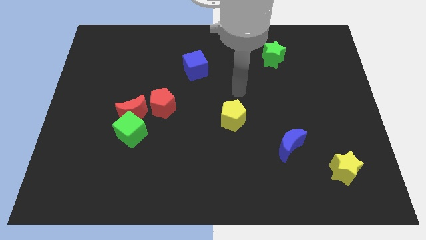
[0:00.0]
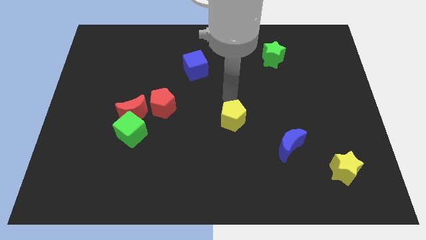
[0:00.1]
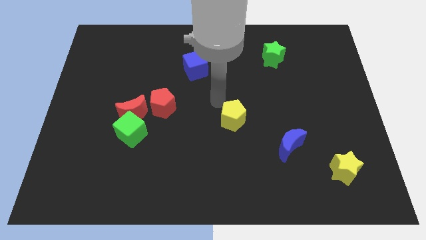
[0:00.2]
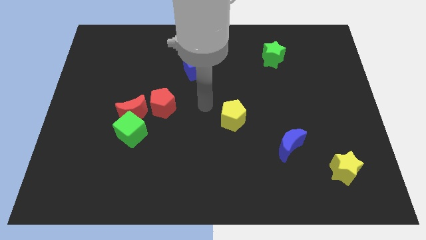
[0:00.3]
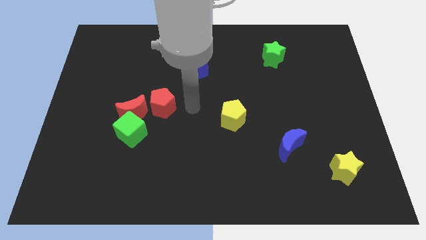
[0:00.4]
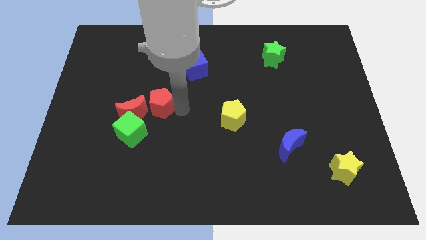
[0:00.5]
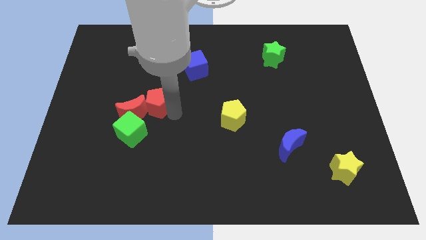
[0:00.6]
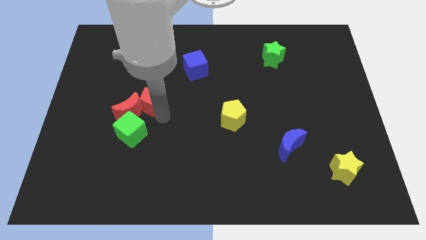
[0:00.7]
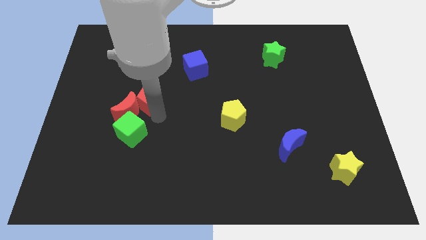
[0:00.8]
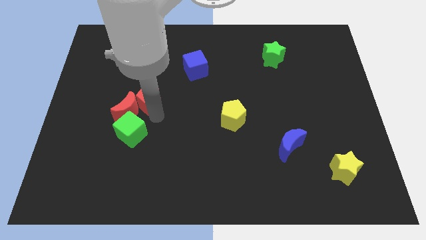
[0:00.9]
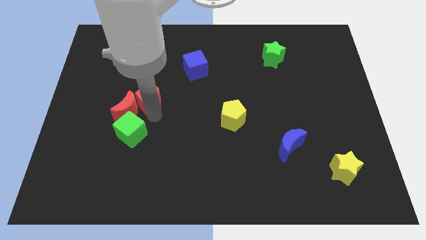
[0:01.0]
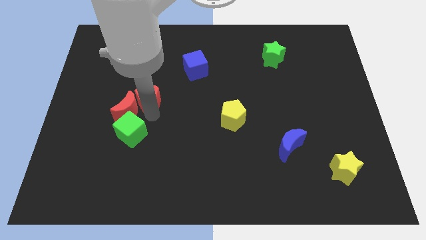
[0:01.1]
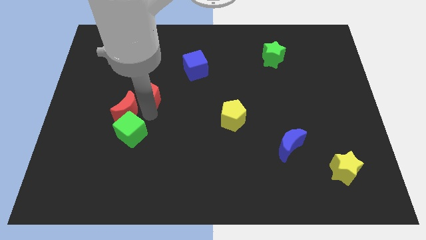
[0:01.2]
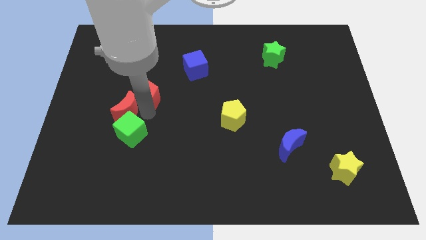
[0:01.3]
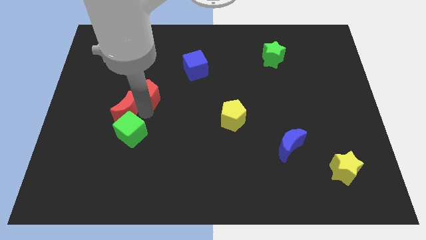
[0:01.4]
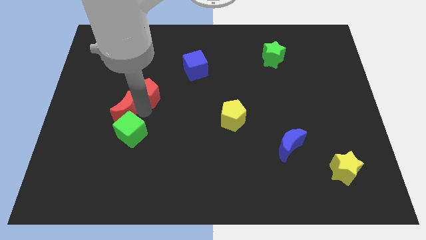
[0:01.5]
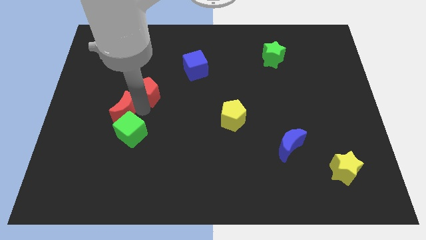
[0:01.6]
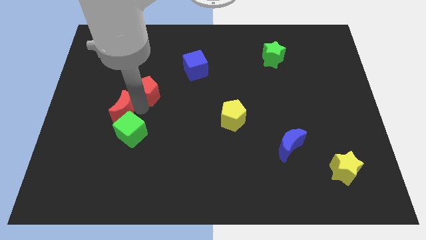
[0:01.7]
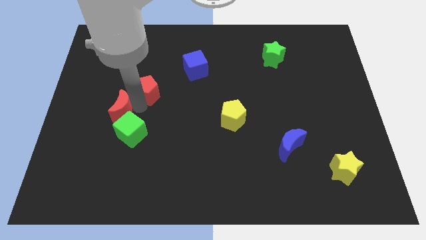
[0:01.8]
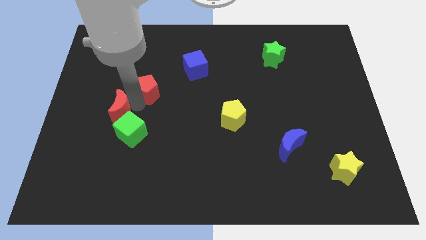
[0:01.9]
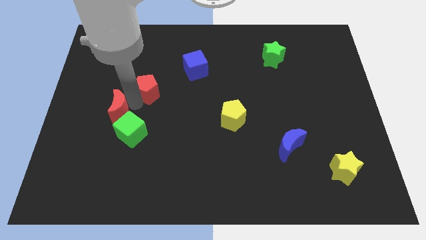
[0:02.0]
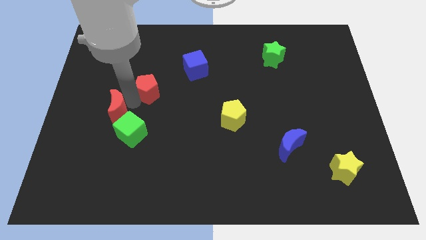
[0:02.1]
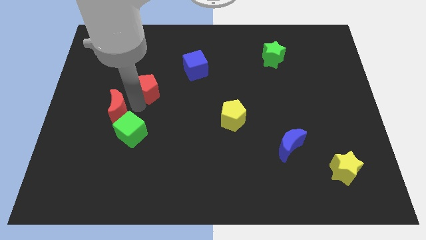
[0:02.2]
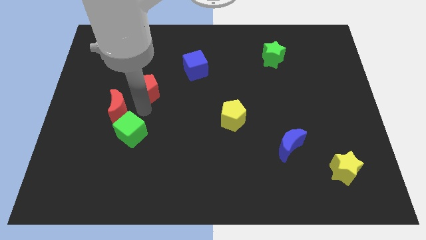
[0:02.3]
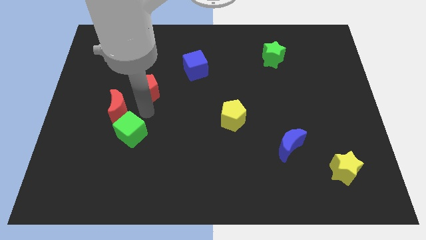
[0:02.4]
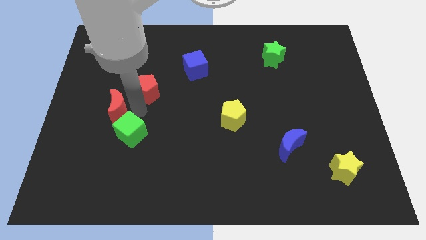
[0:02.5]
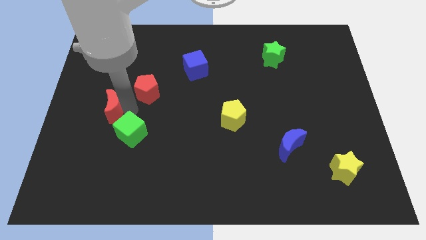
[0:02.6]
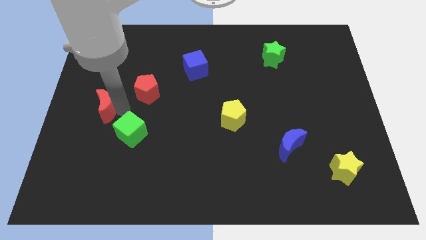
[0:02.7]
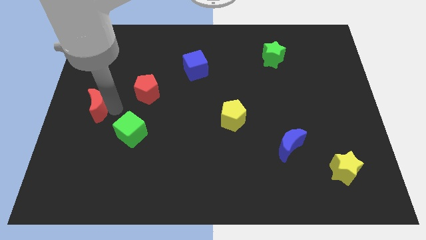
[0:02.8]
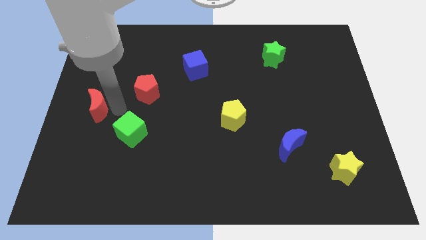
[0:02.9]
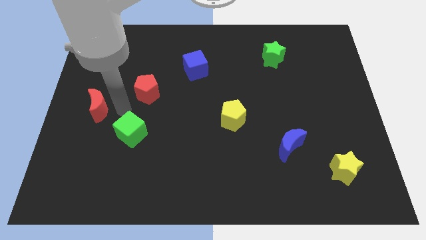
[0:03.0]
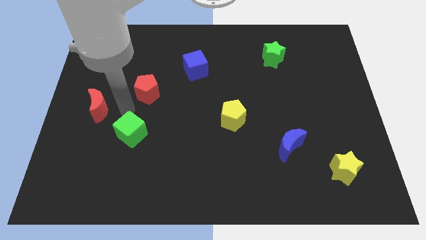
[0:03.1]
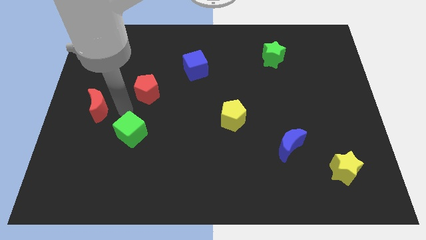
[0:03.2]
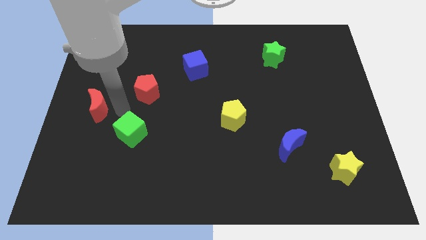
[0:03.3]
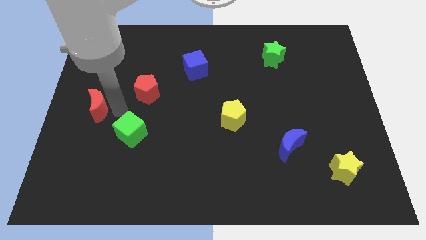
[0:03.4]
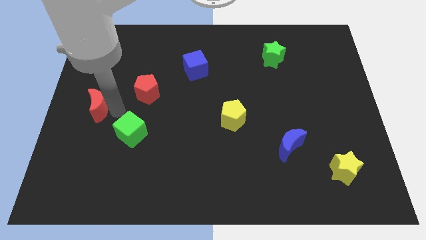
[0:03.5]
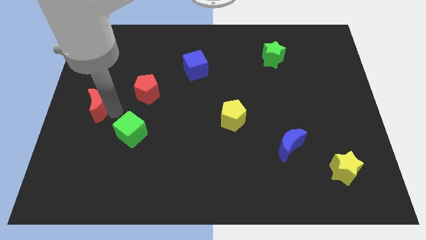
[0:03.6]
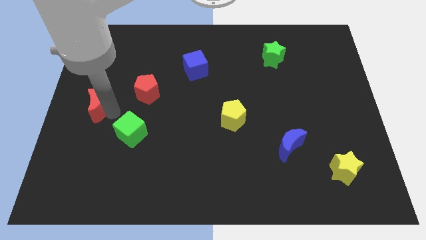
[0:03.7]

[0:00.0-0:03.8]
separate the red moon from the green cube and red pentagon

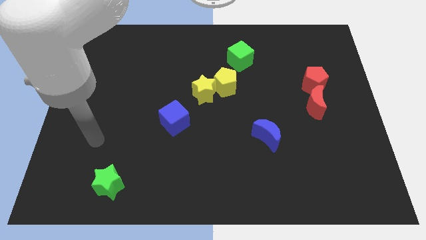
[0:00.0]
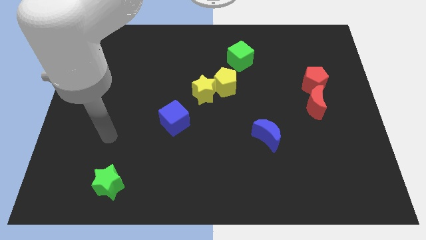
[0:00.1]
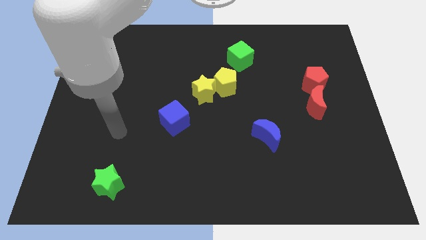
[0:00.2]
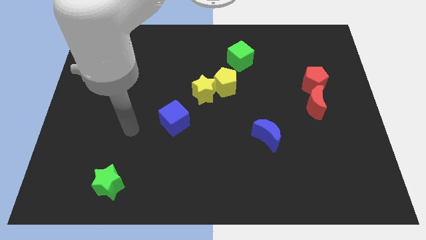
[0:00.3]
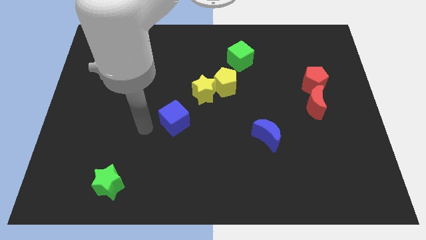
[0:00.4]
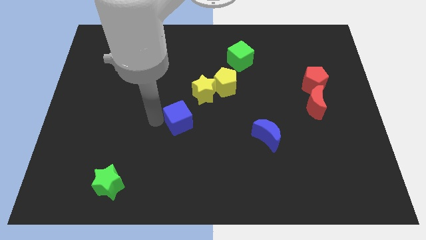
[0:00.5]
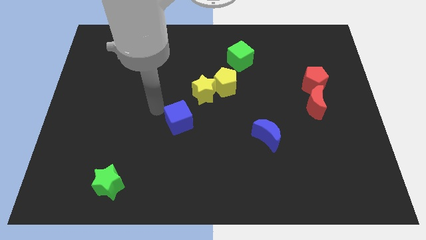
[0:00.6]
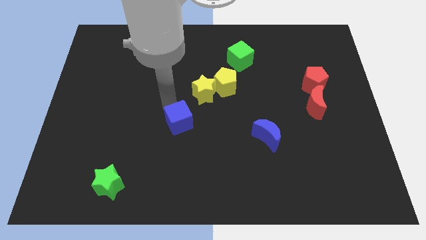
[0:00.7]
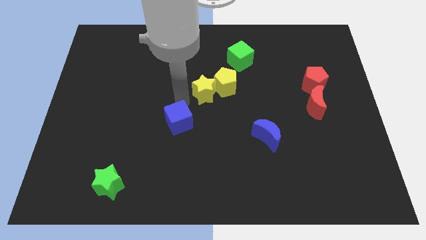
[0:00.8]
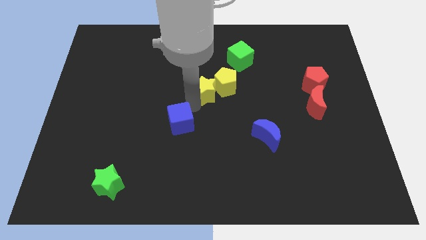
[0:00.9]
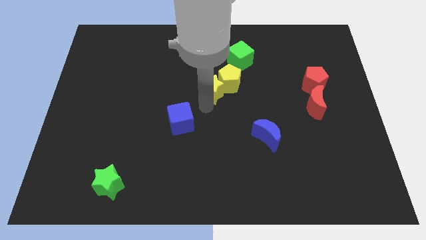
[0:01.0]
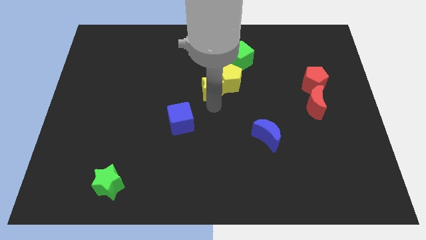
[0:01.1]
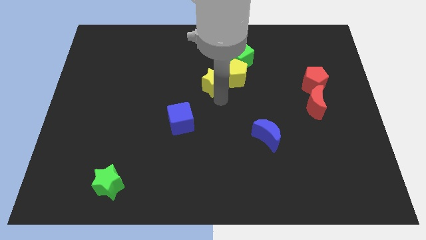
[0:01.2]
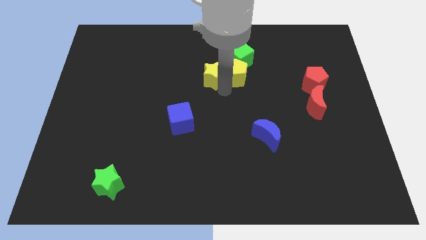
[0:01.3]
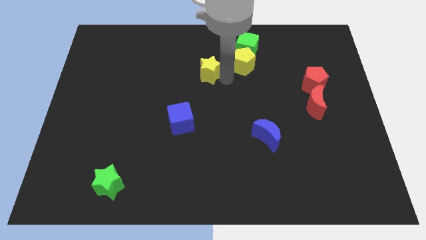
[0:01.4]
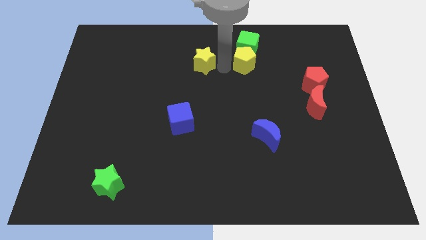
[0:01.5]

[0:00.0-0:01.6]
pull the yellow star apart from the yellow pentagon

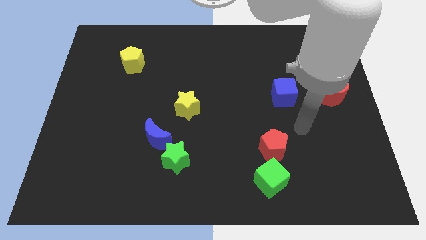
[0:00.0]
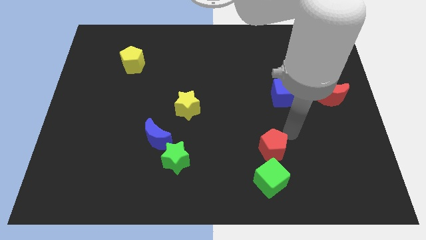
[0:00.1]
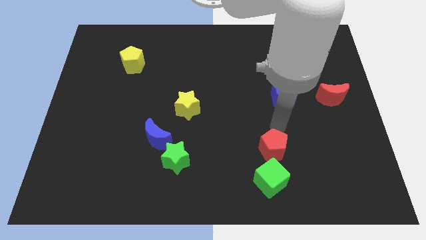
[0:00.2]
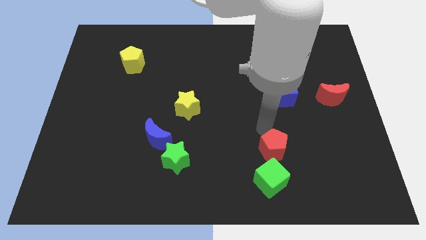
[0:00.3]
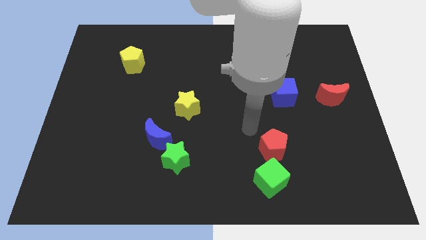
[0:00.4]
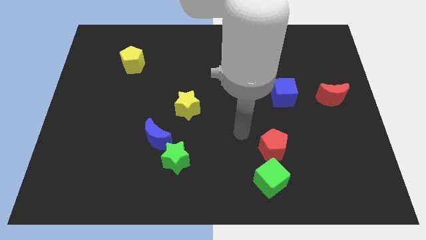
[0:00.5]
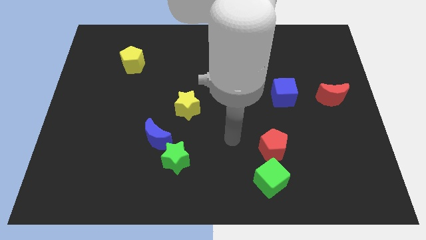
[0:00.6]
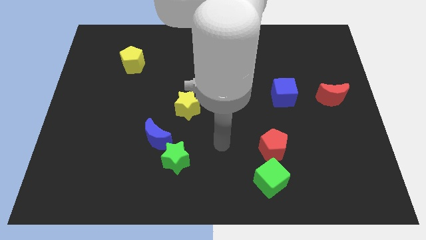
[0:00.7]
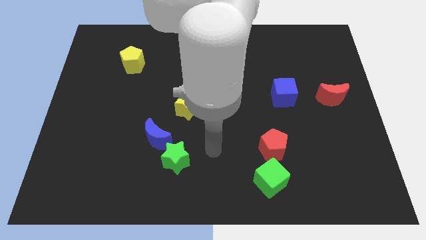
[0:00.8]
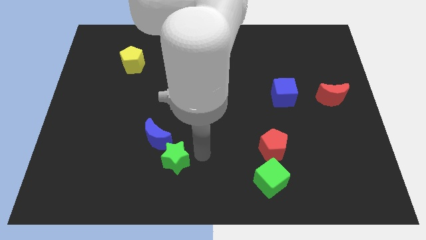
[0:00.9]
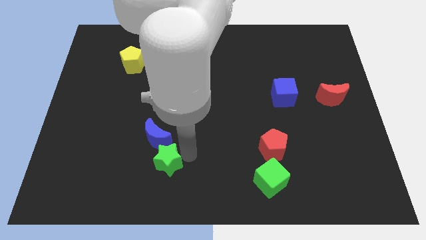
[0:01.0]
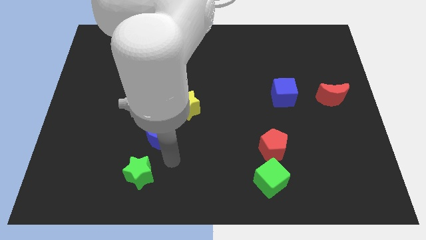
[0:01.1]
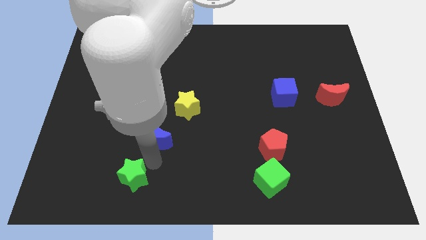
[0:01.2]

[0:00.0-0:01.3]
separate the blue moon from the green star

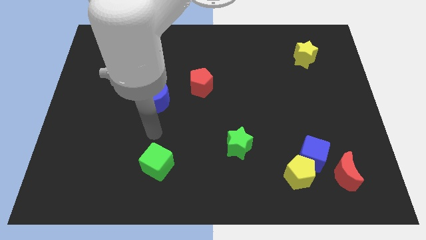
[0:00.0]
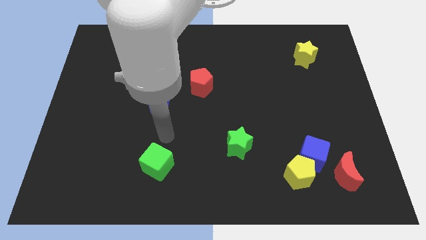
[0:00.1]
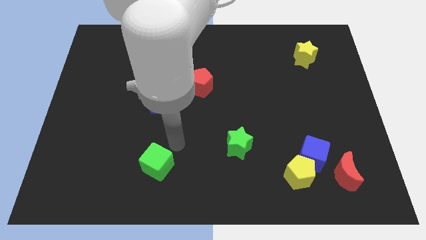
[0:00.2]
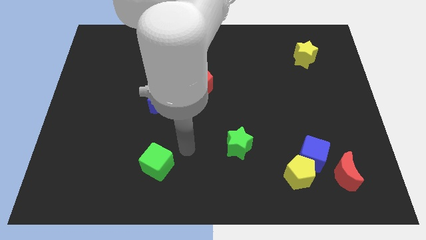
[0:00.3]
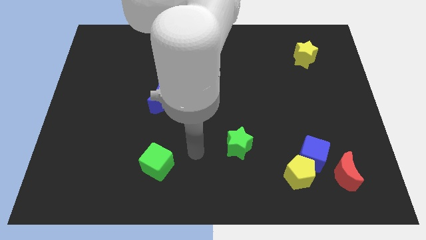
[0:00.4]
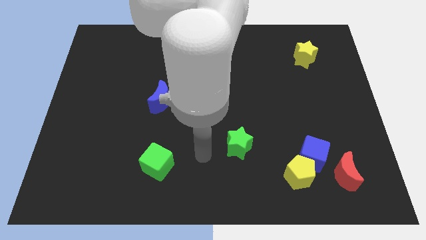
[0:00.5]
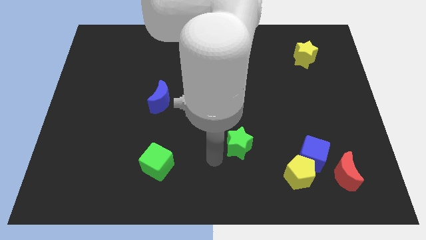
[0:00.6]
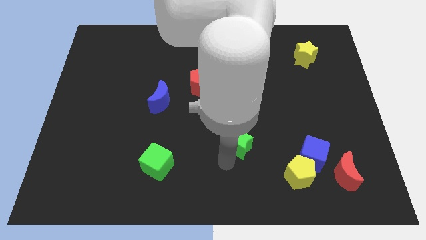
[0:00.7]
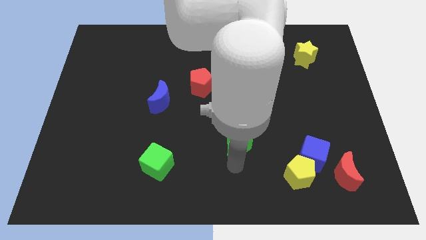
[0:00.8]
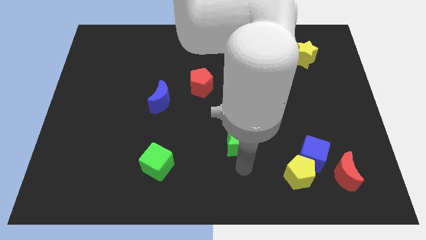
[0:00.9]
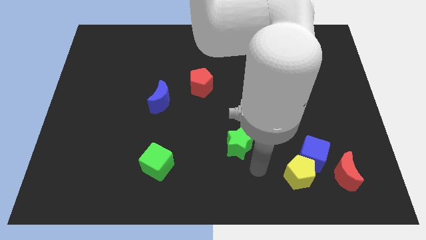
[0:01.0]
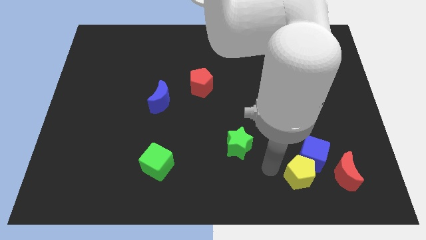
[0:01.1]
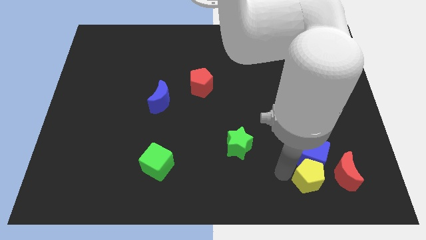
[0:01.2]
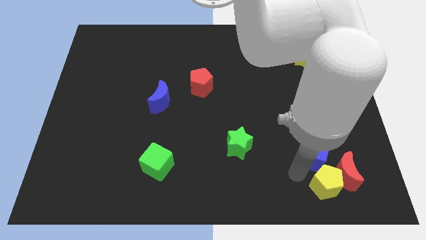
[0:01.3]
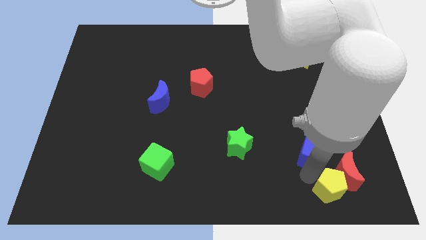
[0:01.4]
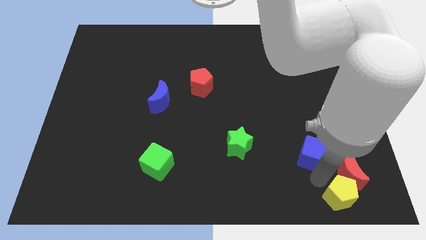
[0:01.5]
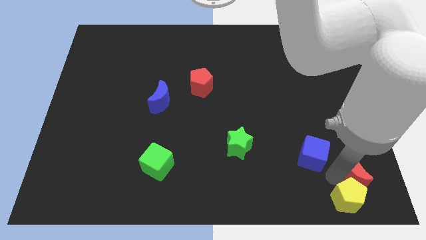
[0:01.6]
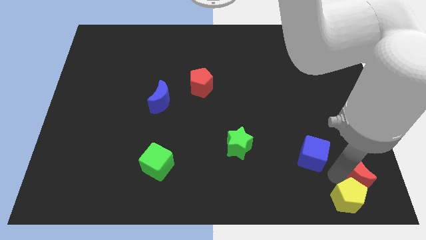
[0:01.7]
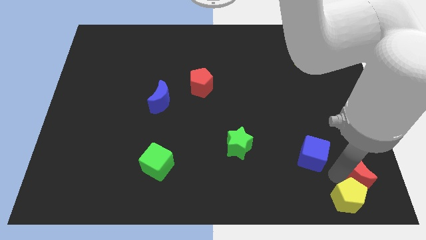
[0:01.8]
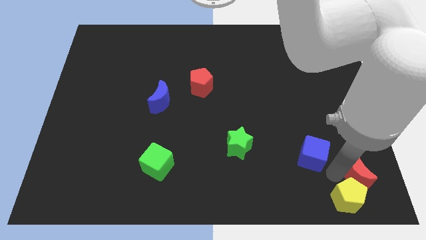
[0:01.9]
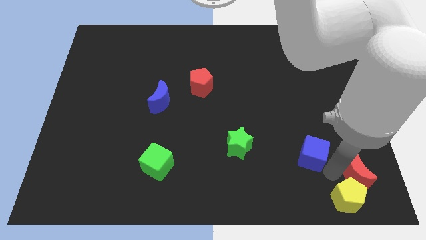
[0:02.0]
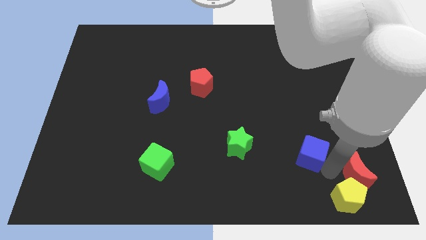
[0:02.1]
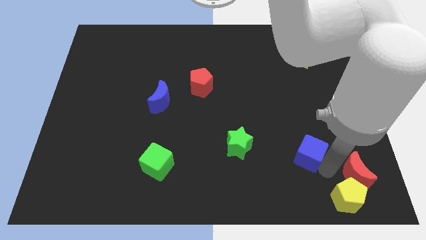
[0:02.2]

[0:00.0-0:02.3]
move the blue cube away from the yellow pentagon and red moon

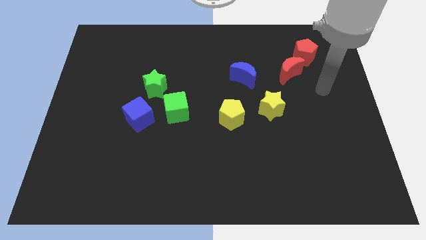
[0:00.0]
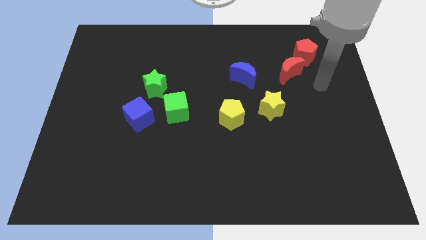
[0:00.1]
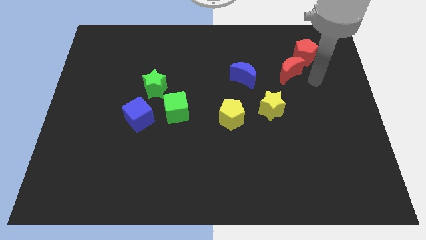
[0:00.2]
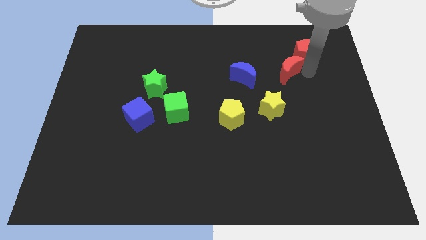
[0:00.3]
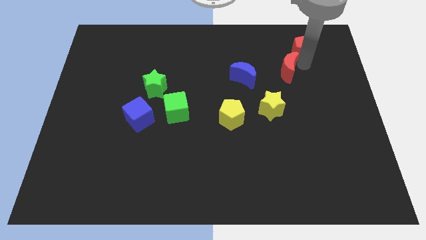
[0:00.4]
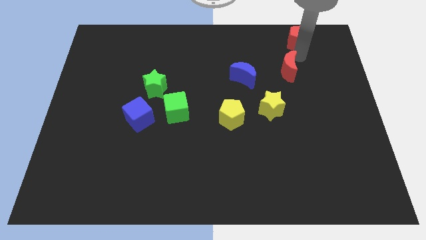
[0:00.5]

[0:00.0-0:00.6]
pull the red moon apart from the red pentagon
